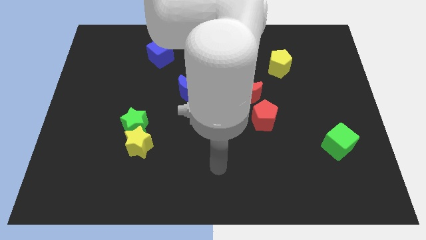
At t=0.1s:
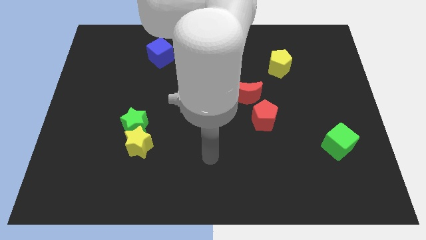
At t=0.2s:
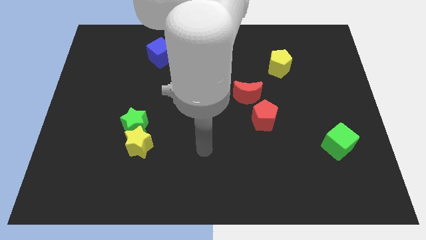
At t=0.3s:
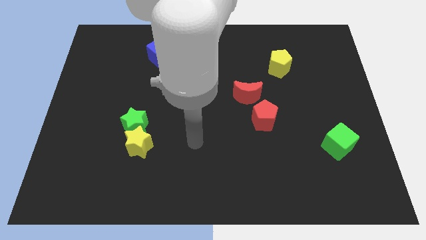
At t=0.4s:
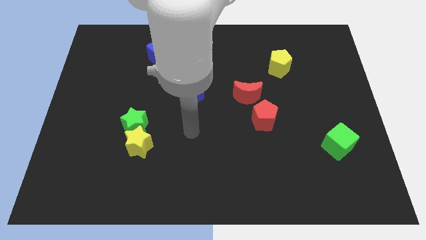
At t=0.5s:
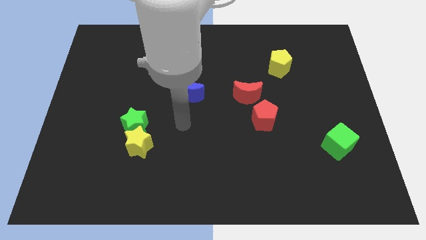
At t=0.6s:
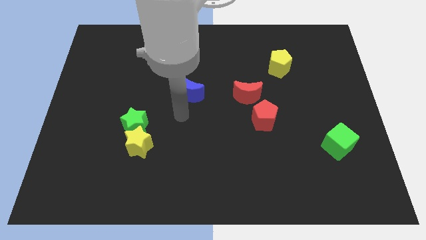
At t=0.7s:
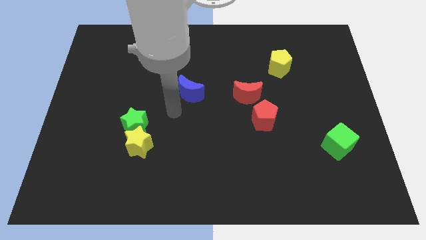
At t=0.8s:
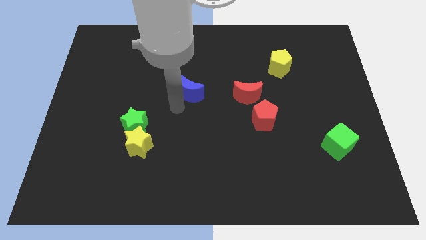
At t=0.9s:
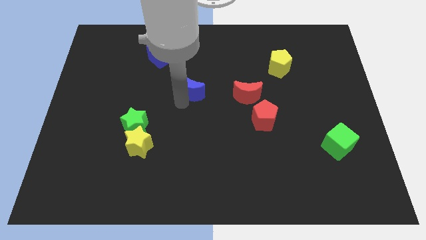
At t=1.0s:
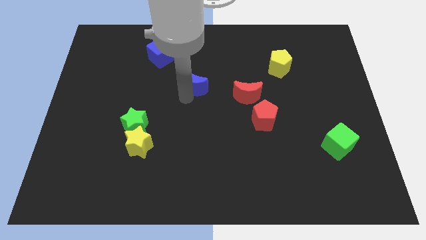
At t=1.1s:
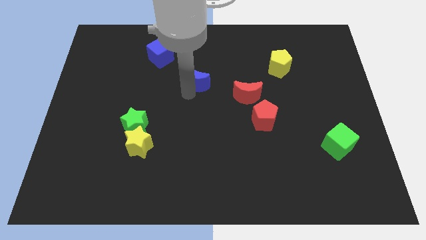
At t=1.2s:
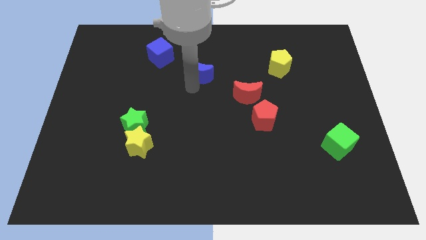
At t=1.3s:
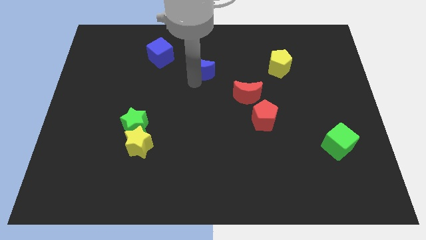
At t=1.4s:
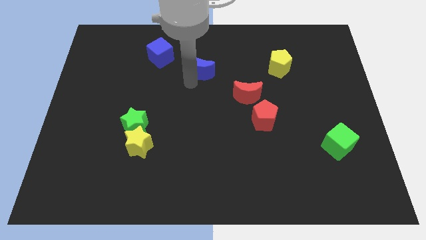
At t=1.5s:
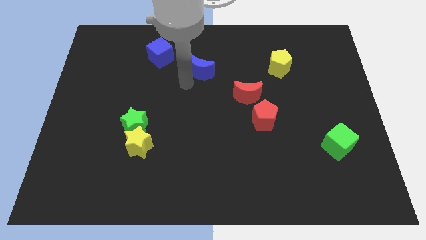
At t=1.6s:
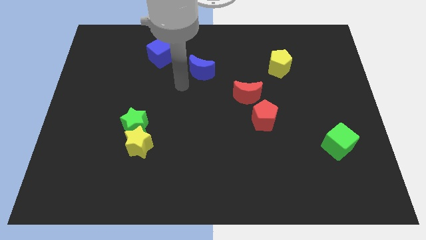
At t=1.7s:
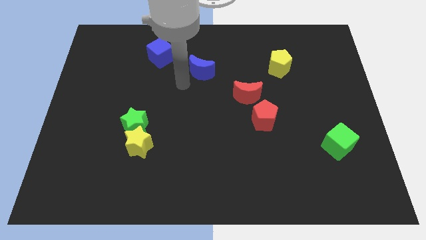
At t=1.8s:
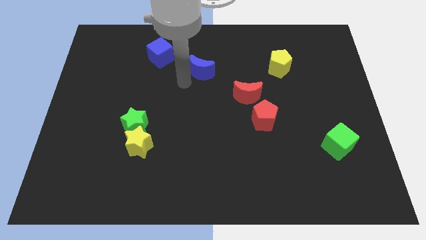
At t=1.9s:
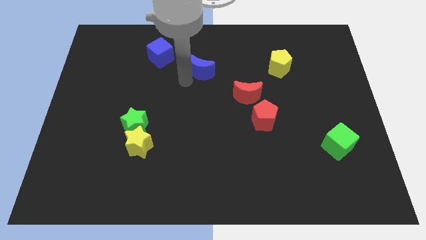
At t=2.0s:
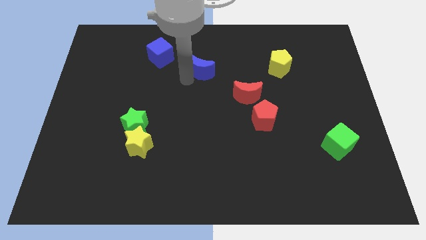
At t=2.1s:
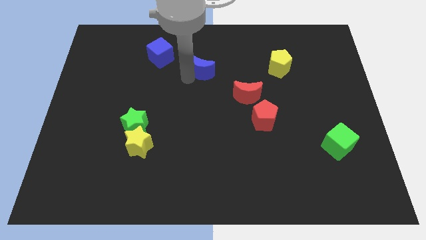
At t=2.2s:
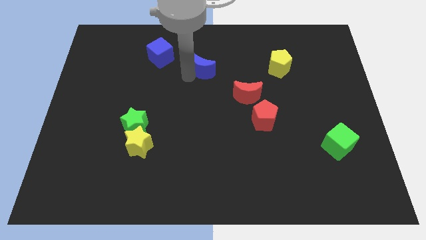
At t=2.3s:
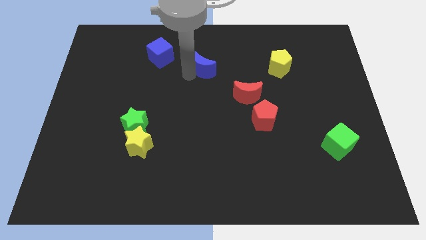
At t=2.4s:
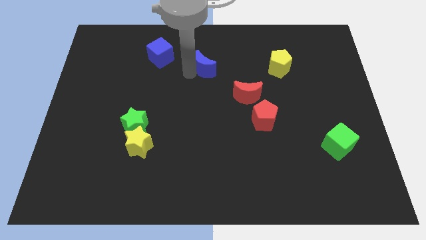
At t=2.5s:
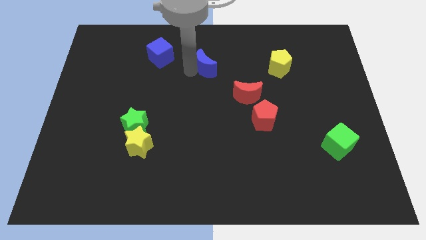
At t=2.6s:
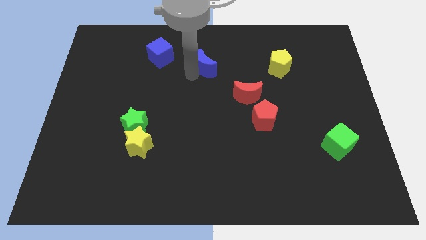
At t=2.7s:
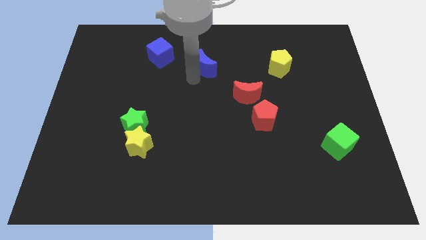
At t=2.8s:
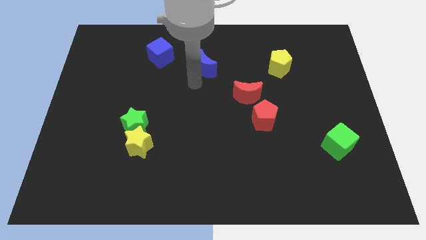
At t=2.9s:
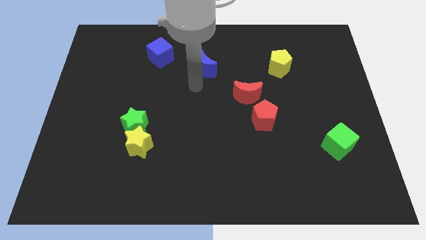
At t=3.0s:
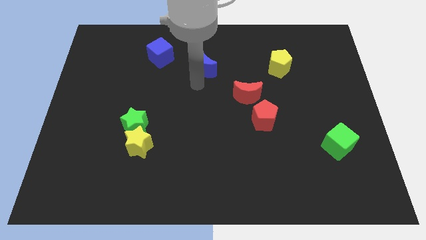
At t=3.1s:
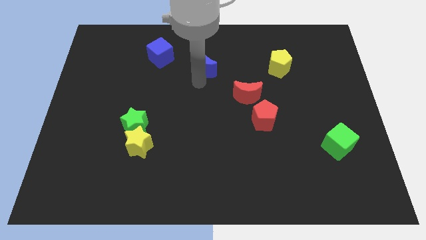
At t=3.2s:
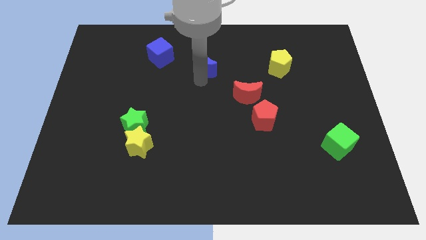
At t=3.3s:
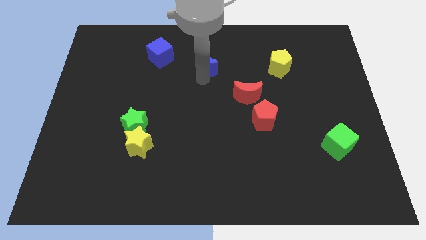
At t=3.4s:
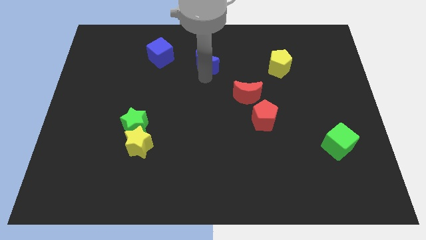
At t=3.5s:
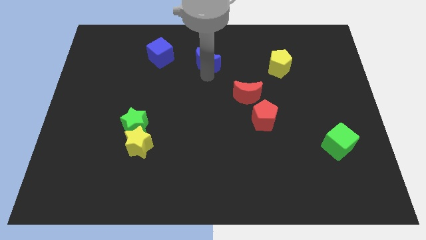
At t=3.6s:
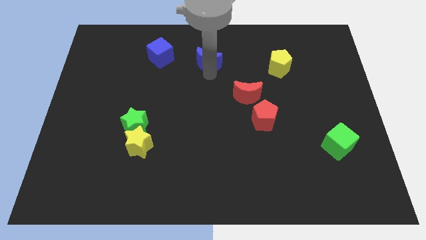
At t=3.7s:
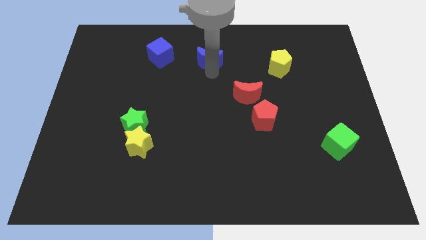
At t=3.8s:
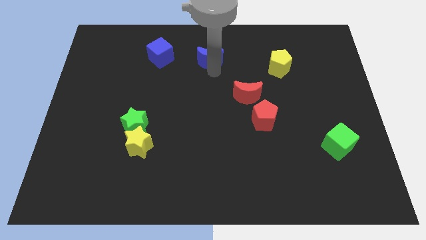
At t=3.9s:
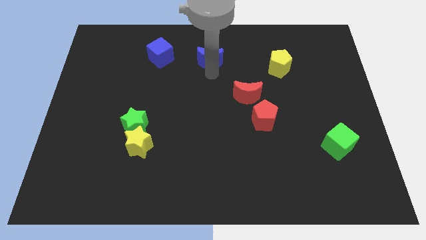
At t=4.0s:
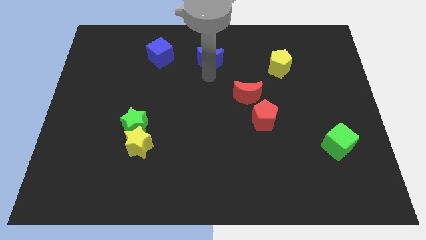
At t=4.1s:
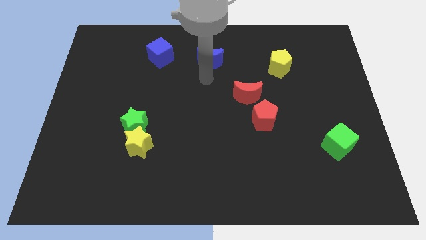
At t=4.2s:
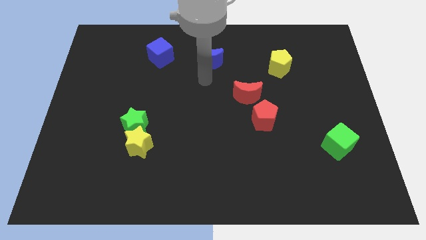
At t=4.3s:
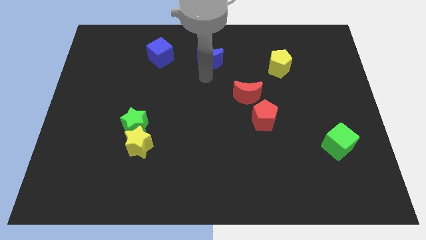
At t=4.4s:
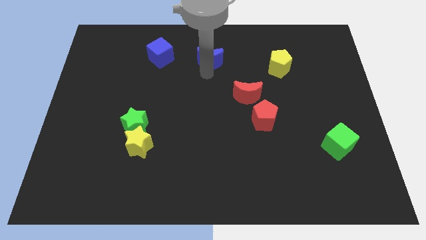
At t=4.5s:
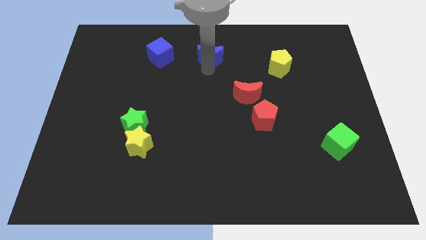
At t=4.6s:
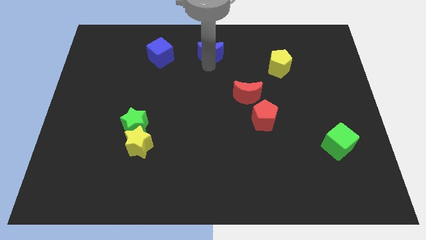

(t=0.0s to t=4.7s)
slide the blue moon to the top side

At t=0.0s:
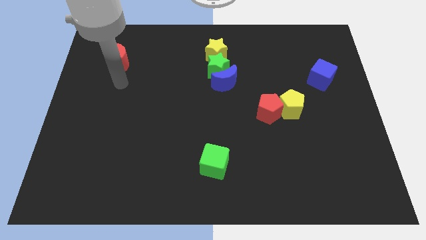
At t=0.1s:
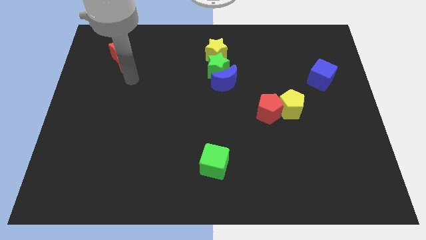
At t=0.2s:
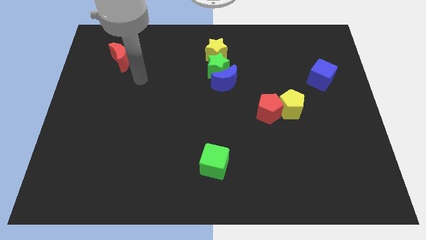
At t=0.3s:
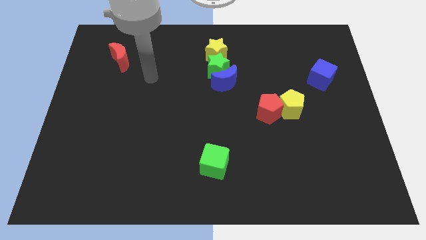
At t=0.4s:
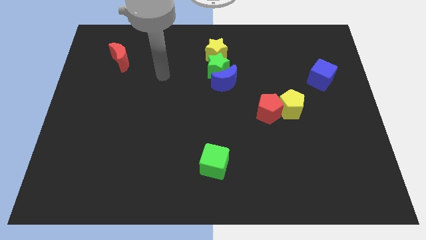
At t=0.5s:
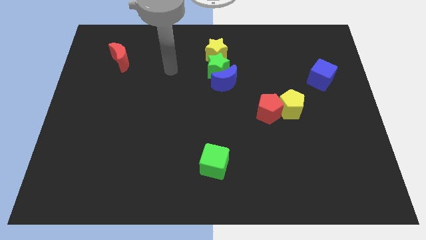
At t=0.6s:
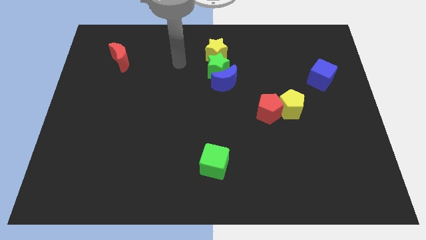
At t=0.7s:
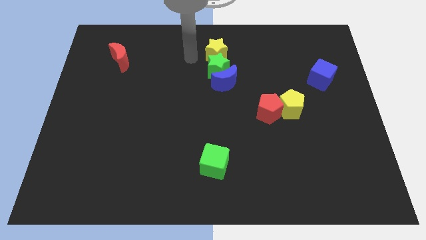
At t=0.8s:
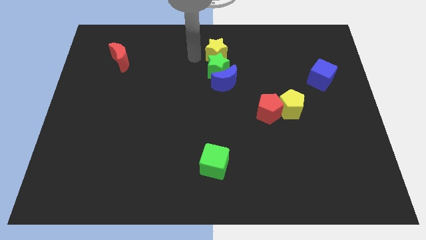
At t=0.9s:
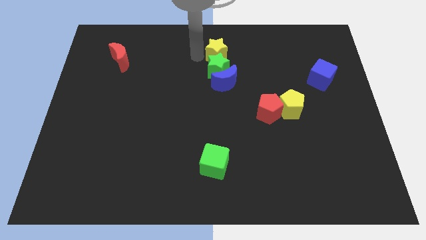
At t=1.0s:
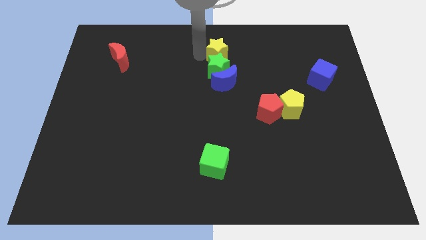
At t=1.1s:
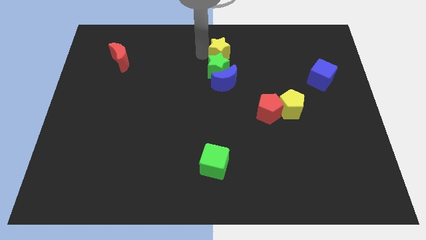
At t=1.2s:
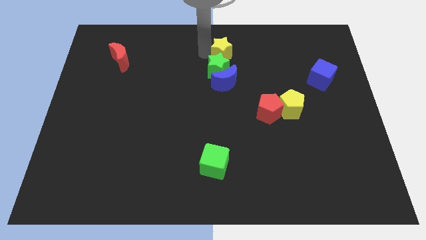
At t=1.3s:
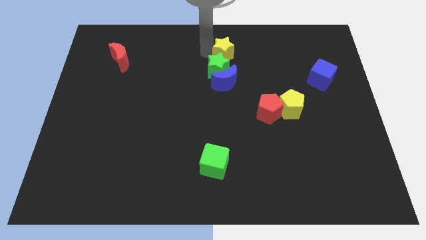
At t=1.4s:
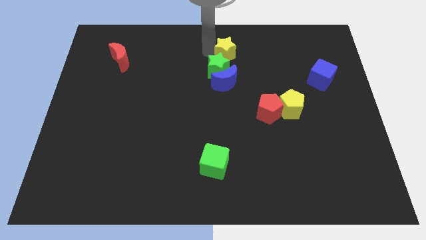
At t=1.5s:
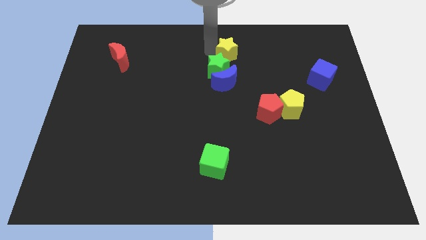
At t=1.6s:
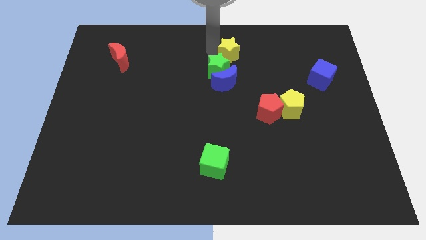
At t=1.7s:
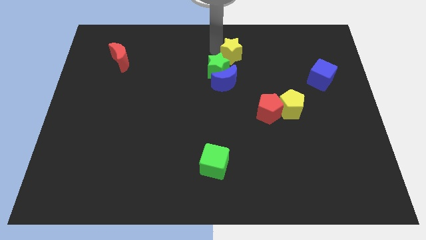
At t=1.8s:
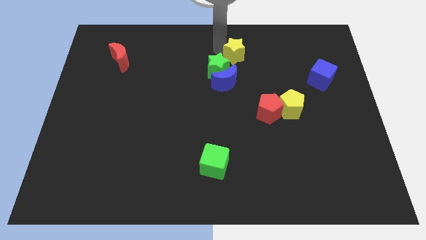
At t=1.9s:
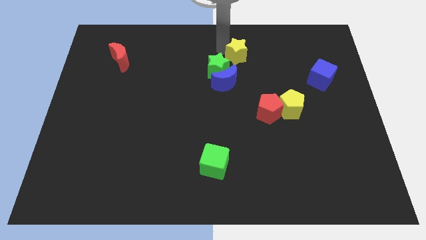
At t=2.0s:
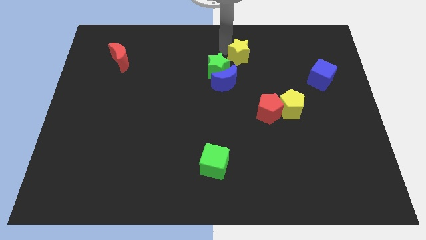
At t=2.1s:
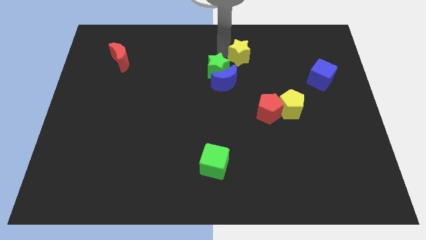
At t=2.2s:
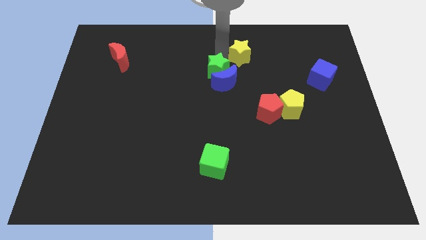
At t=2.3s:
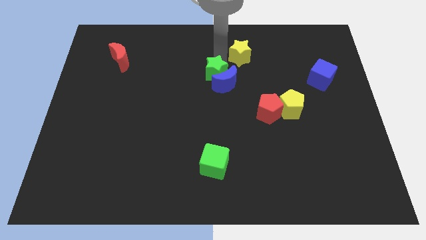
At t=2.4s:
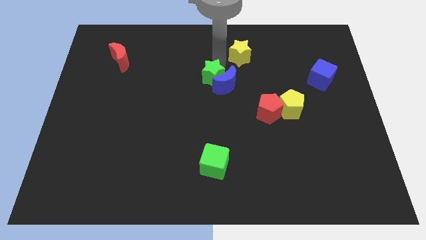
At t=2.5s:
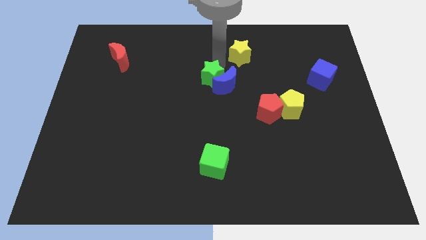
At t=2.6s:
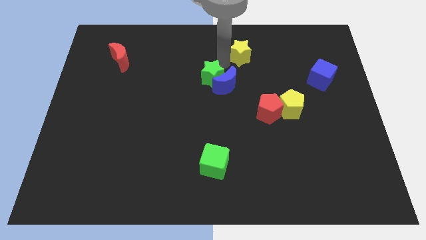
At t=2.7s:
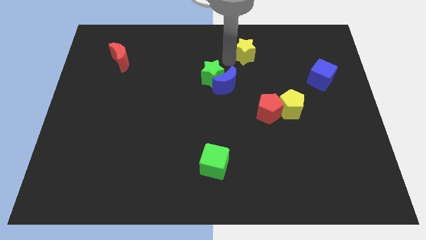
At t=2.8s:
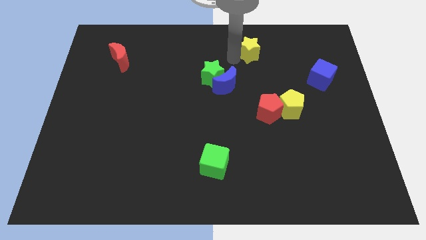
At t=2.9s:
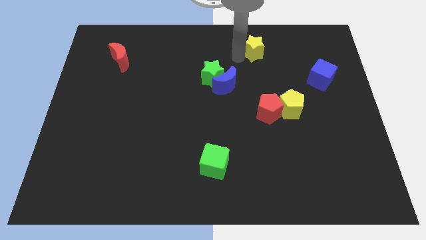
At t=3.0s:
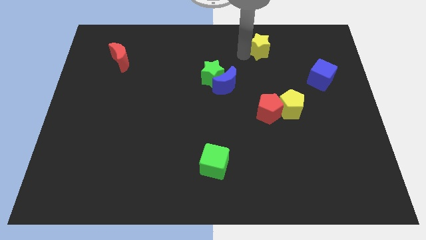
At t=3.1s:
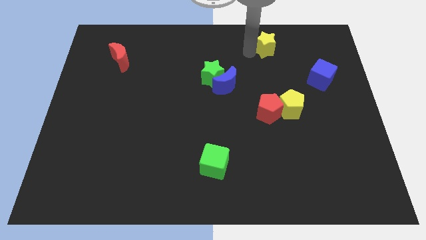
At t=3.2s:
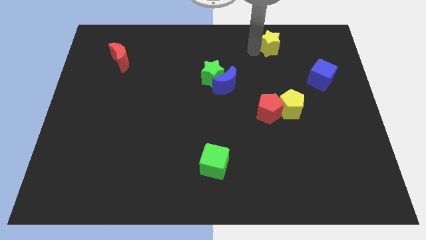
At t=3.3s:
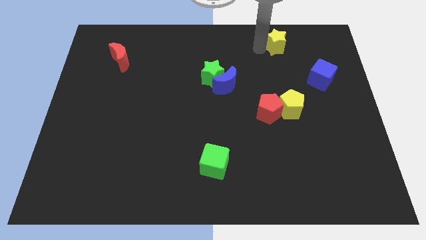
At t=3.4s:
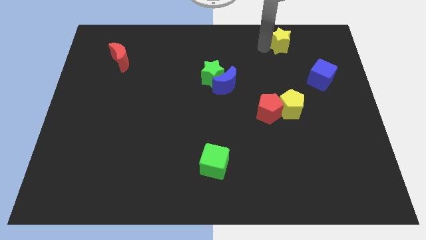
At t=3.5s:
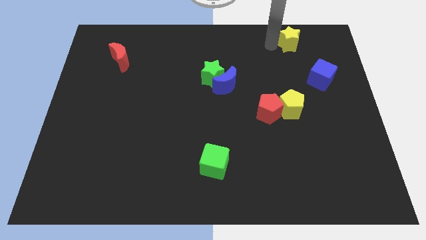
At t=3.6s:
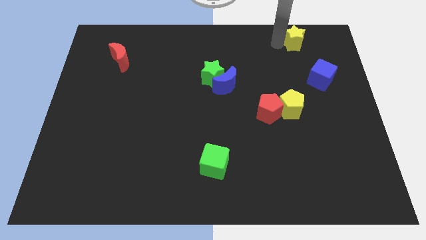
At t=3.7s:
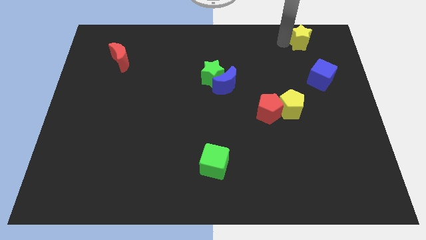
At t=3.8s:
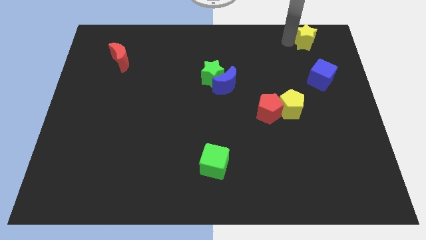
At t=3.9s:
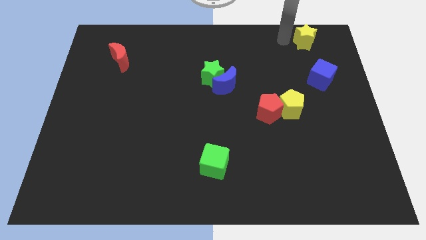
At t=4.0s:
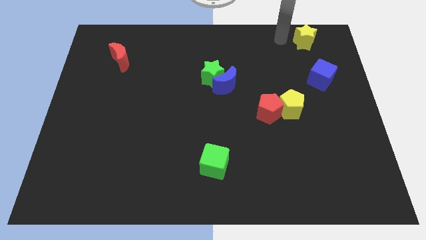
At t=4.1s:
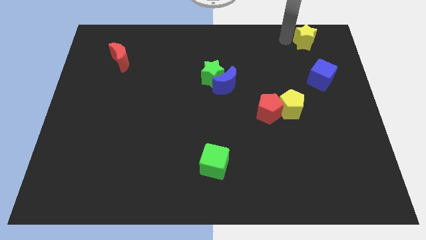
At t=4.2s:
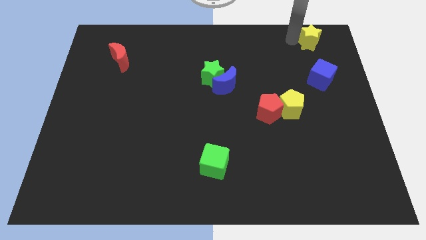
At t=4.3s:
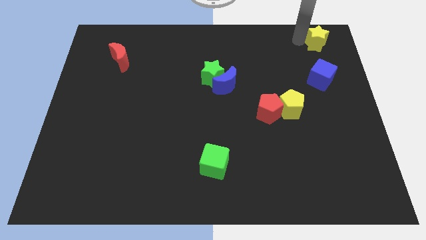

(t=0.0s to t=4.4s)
slide the yellow star to the top right
